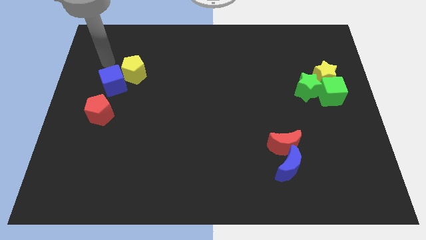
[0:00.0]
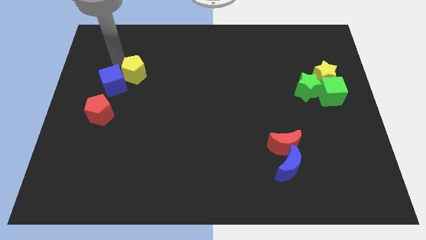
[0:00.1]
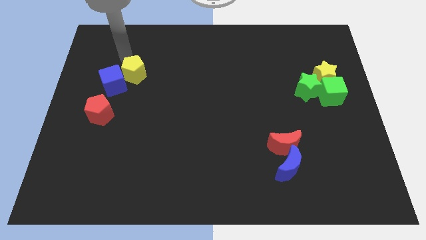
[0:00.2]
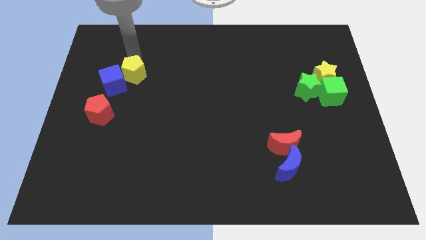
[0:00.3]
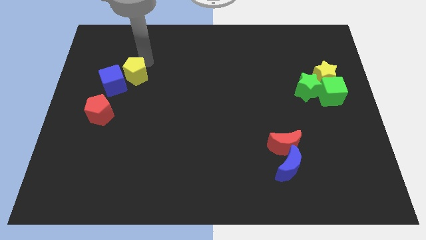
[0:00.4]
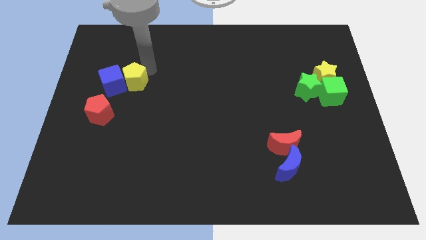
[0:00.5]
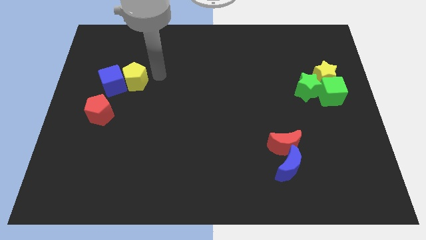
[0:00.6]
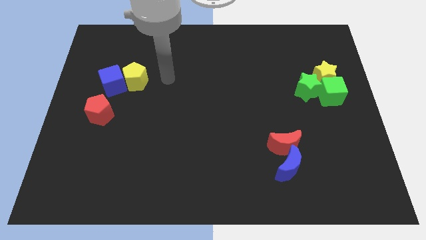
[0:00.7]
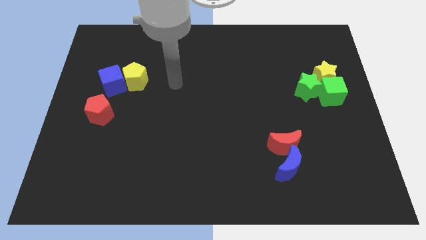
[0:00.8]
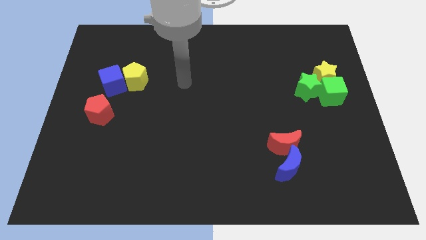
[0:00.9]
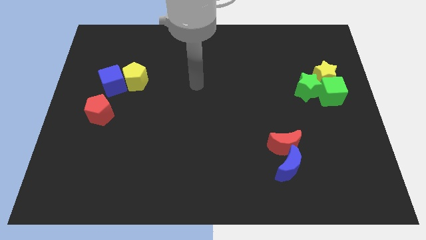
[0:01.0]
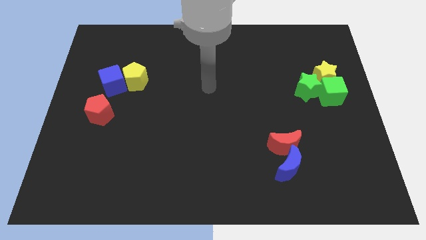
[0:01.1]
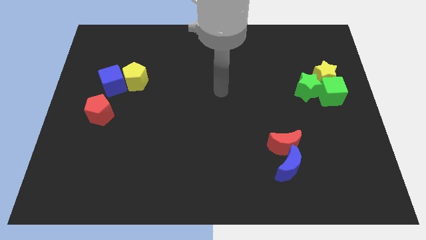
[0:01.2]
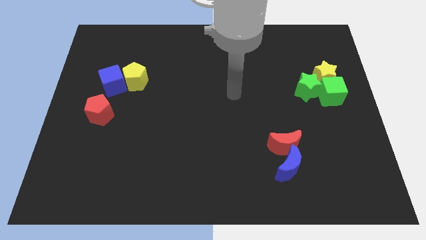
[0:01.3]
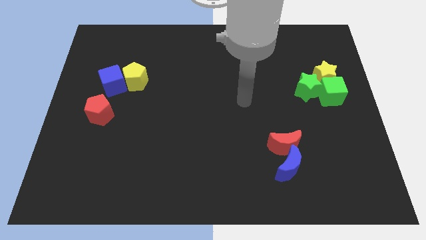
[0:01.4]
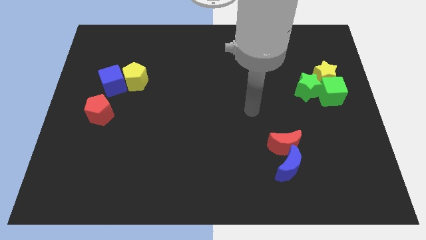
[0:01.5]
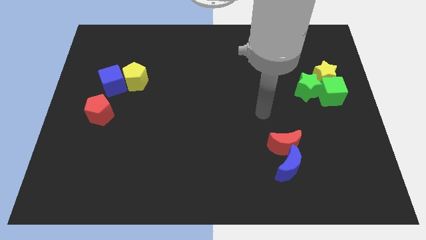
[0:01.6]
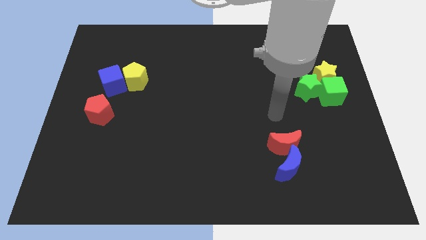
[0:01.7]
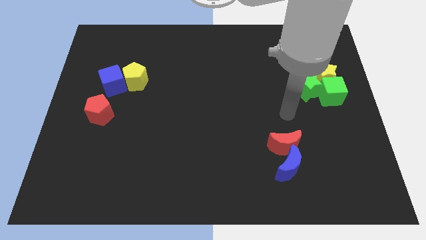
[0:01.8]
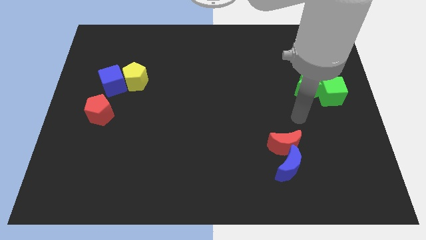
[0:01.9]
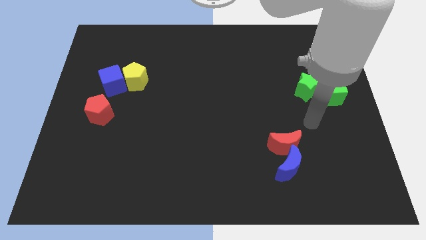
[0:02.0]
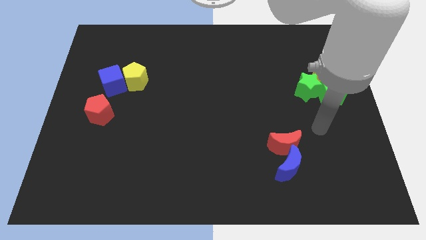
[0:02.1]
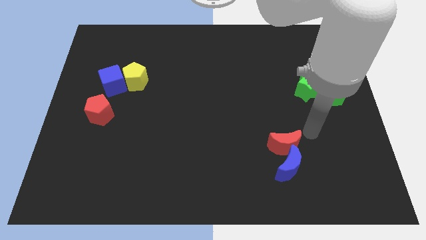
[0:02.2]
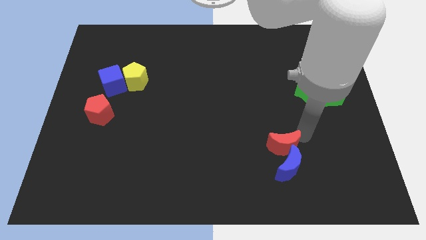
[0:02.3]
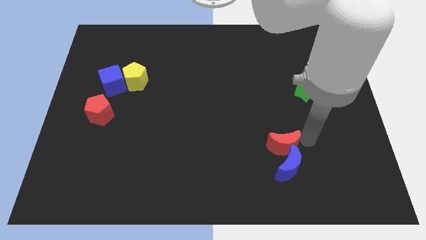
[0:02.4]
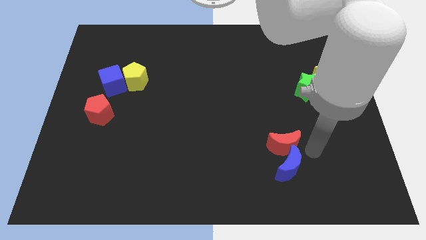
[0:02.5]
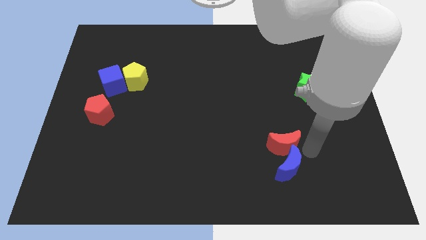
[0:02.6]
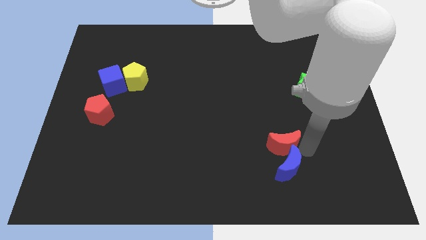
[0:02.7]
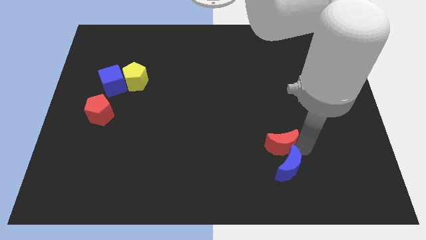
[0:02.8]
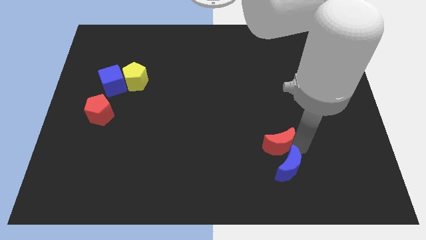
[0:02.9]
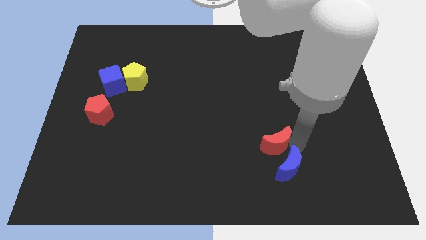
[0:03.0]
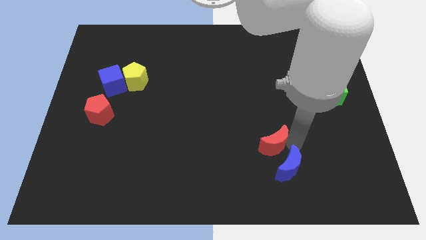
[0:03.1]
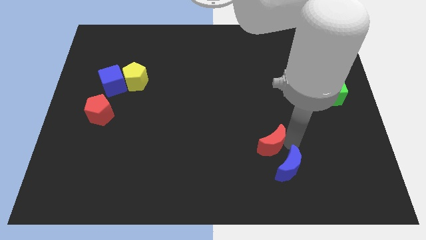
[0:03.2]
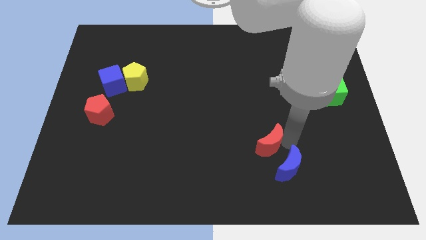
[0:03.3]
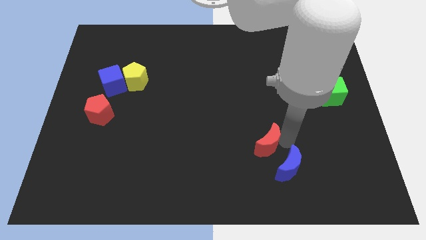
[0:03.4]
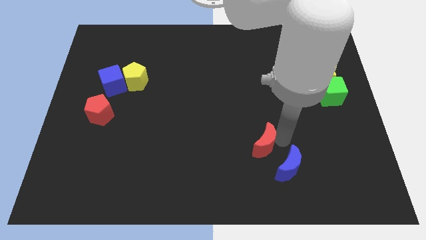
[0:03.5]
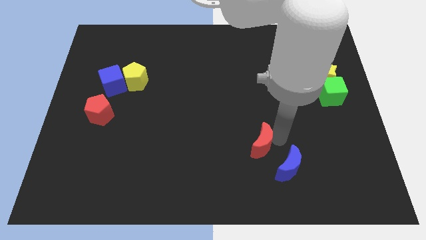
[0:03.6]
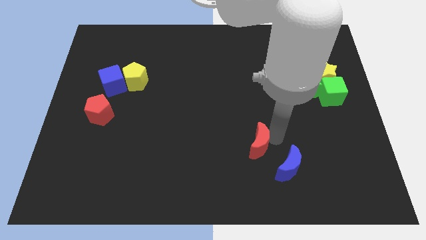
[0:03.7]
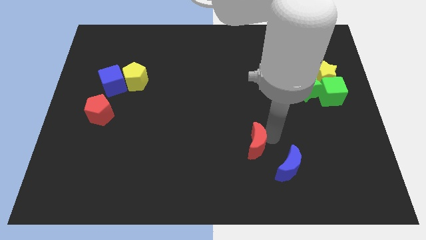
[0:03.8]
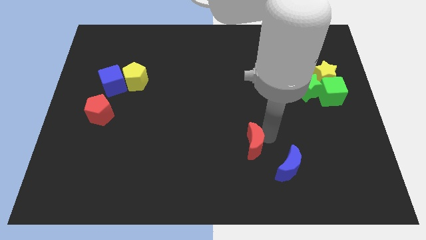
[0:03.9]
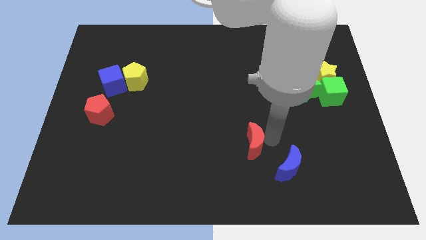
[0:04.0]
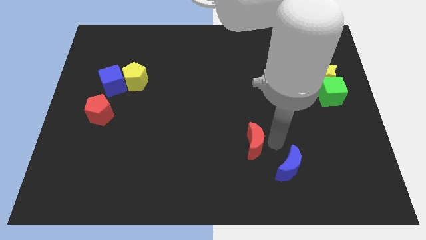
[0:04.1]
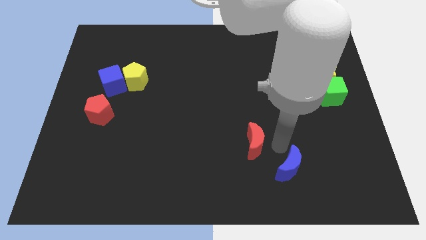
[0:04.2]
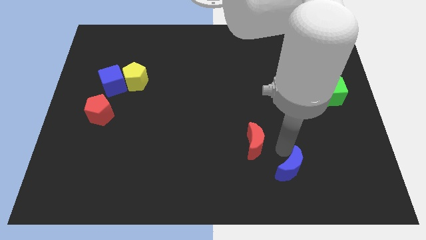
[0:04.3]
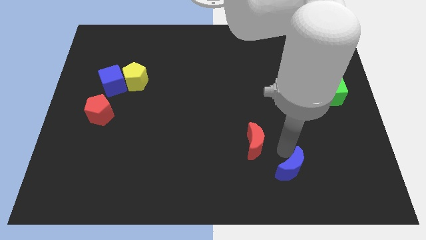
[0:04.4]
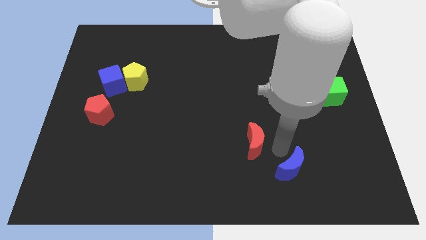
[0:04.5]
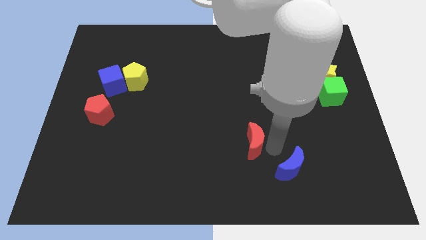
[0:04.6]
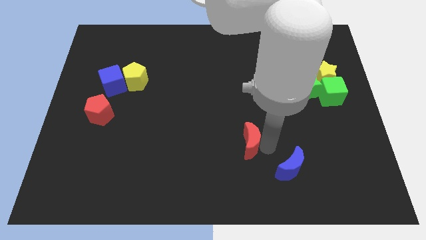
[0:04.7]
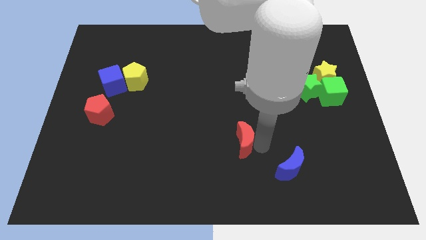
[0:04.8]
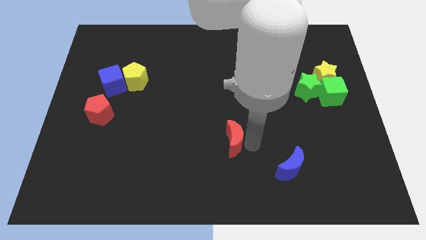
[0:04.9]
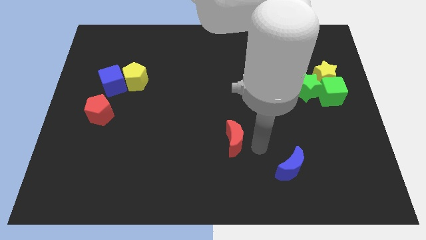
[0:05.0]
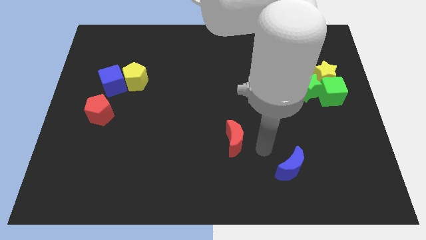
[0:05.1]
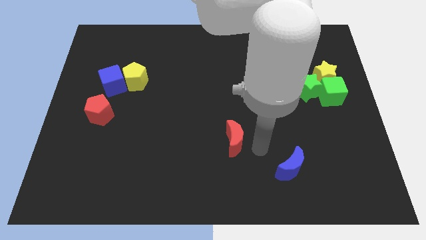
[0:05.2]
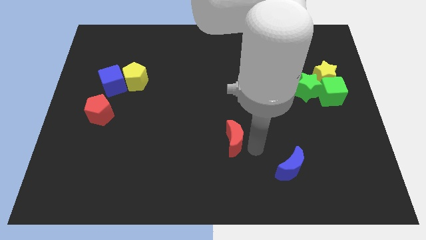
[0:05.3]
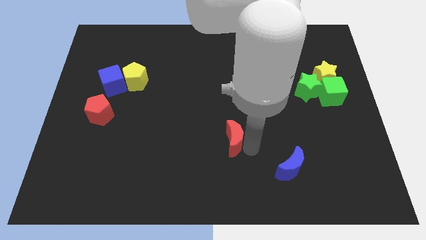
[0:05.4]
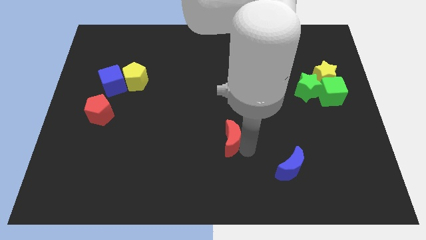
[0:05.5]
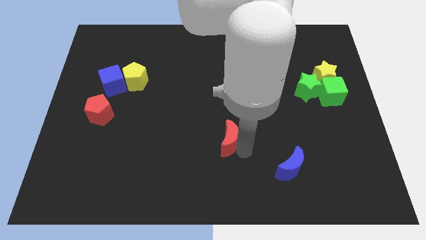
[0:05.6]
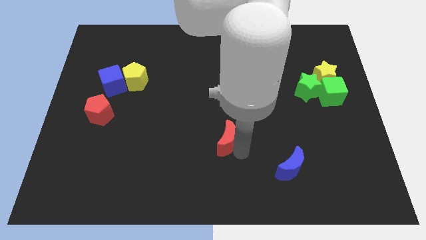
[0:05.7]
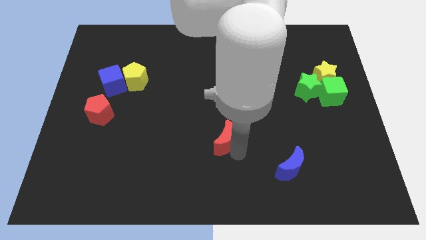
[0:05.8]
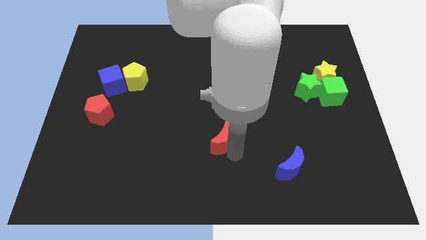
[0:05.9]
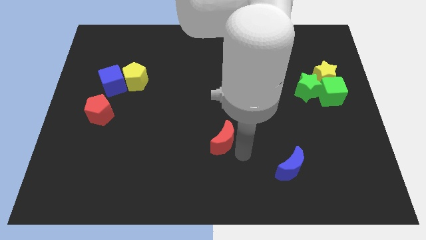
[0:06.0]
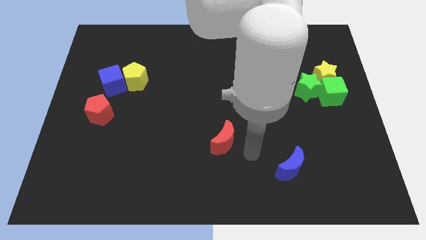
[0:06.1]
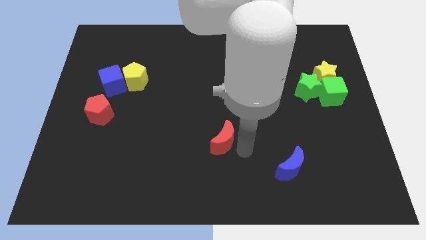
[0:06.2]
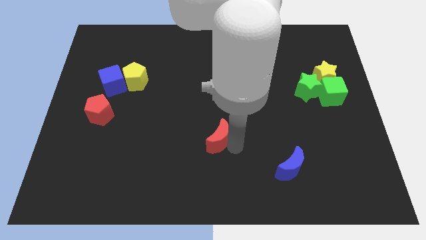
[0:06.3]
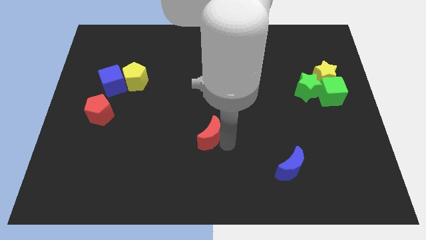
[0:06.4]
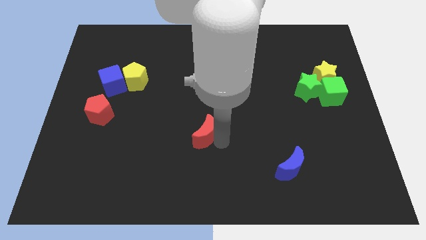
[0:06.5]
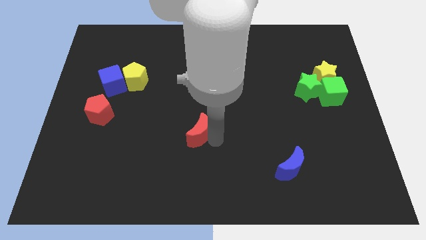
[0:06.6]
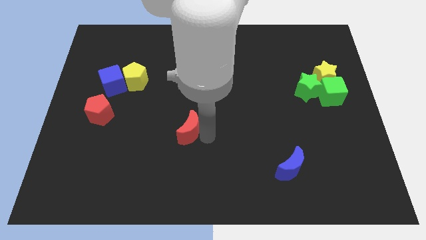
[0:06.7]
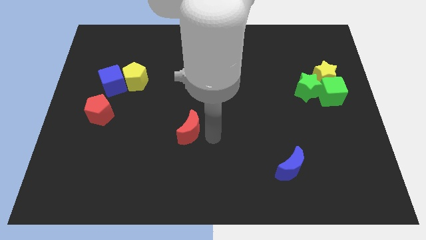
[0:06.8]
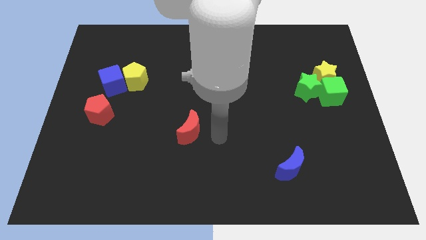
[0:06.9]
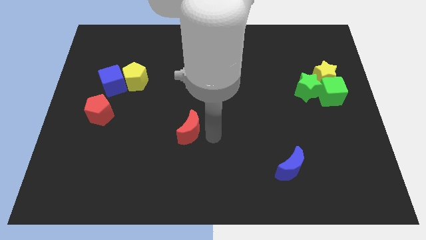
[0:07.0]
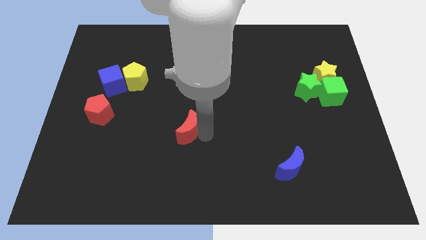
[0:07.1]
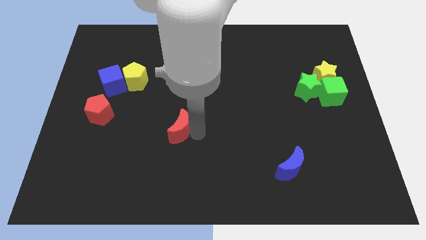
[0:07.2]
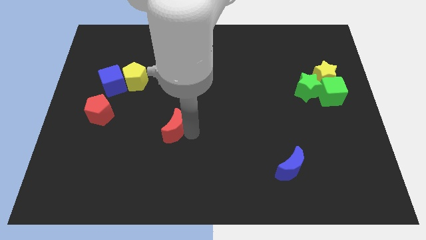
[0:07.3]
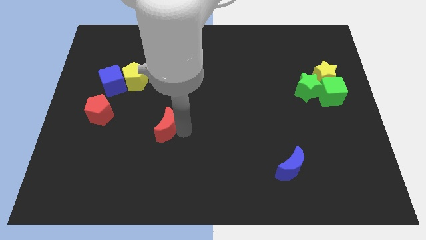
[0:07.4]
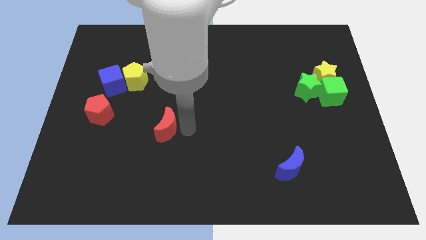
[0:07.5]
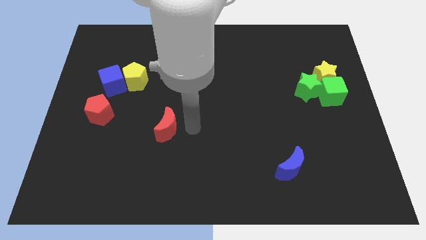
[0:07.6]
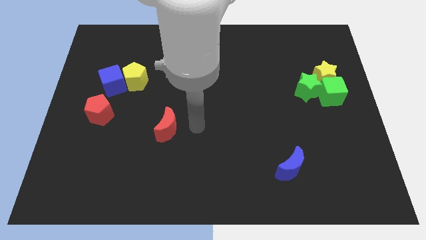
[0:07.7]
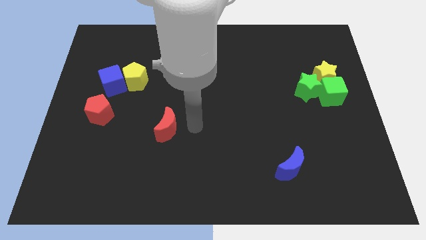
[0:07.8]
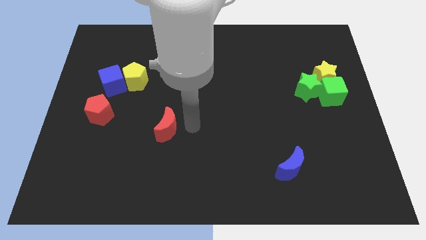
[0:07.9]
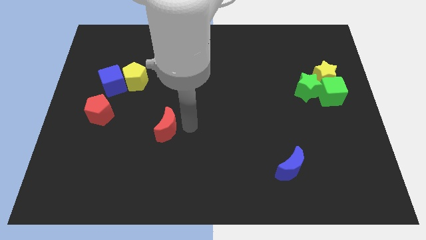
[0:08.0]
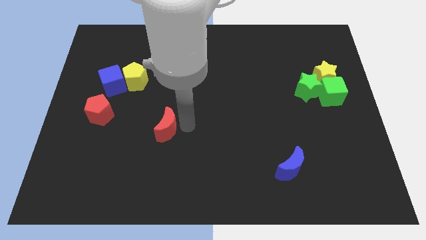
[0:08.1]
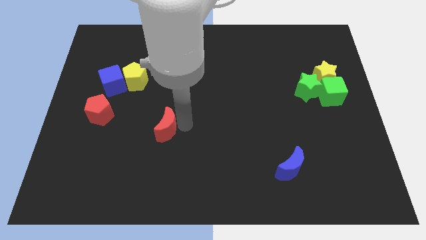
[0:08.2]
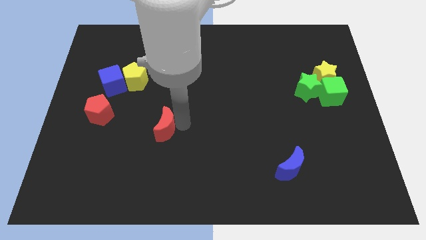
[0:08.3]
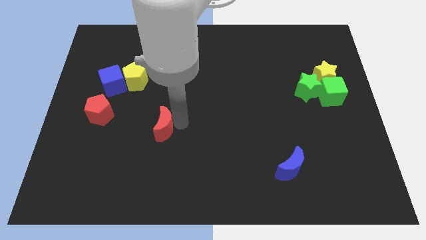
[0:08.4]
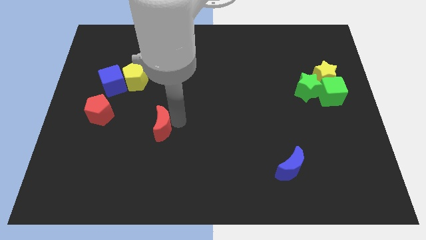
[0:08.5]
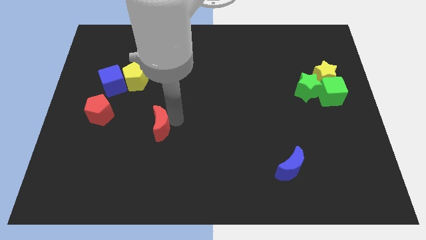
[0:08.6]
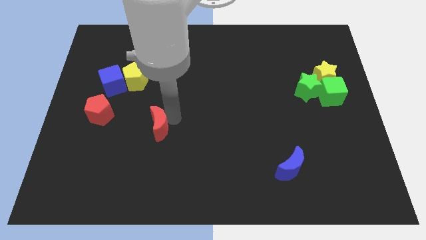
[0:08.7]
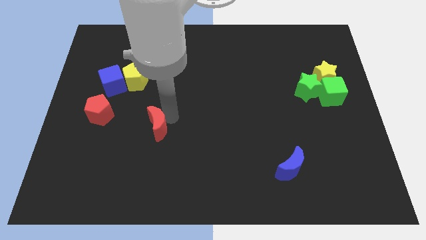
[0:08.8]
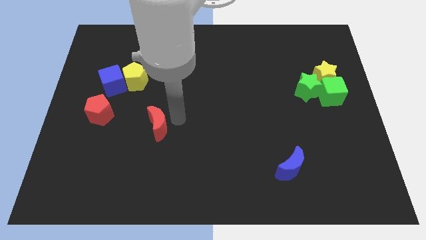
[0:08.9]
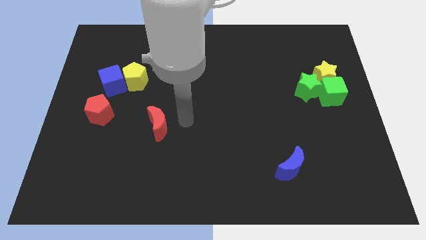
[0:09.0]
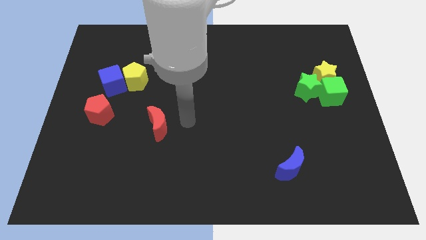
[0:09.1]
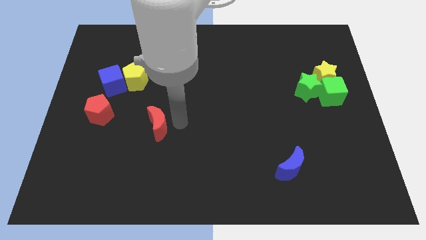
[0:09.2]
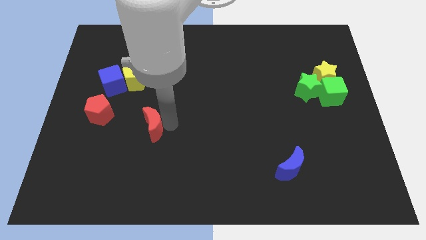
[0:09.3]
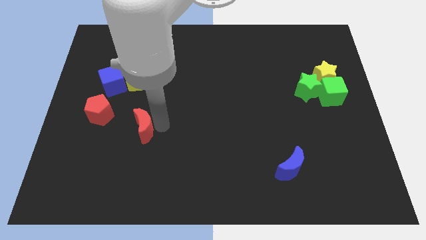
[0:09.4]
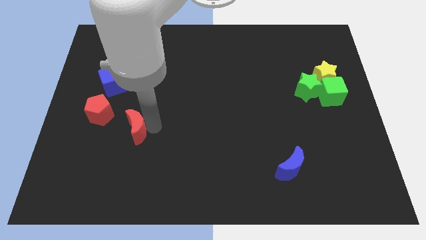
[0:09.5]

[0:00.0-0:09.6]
put the red moon to the bottom right side of the red pentagon
